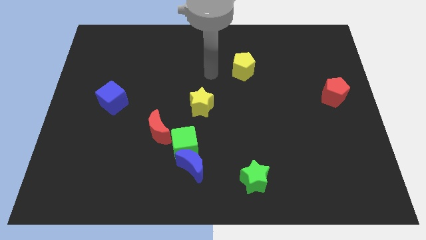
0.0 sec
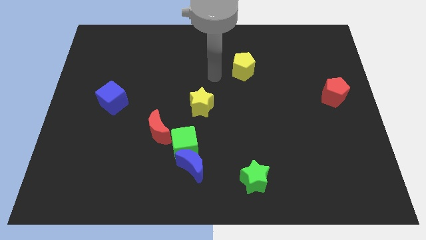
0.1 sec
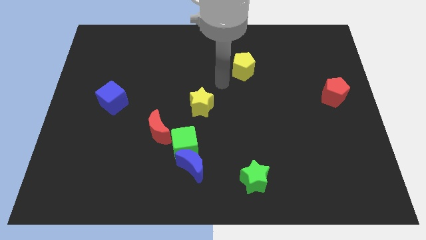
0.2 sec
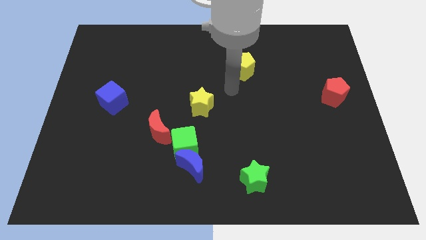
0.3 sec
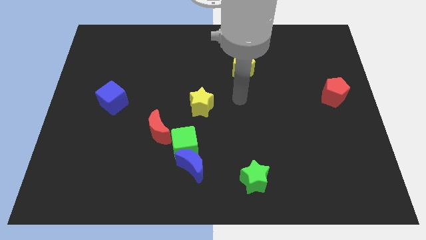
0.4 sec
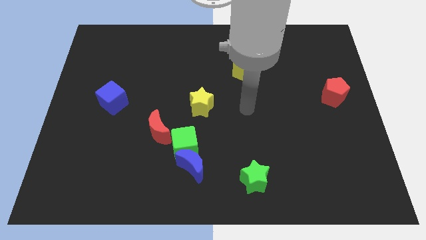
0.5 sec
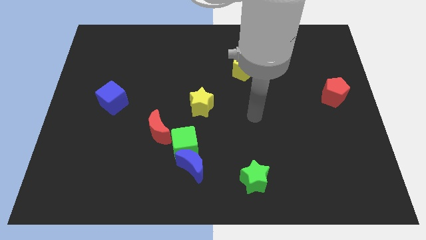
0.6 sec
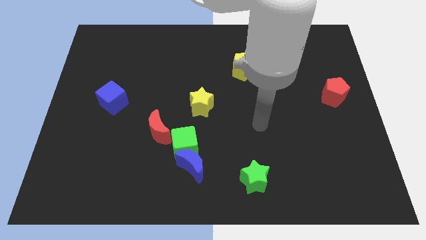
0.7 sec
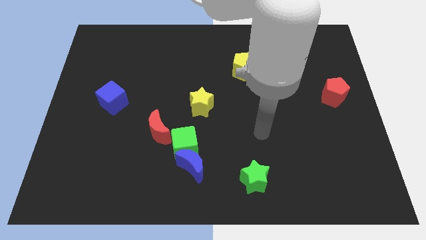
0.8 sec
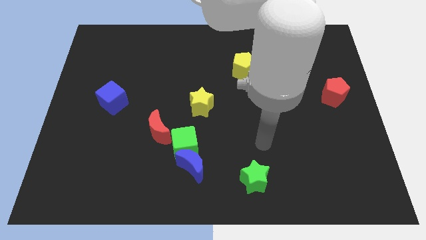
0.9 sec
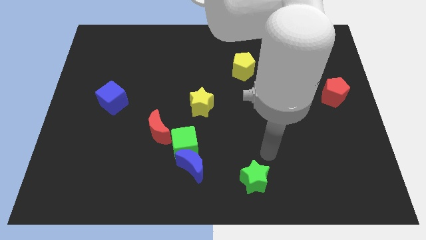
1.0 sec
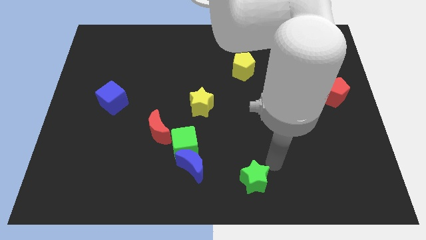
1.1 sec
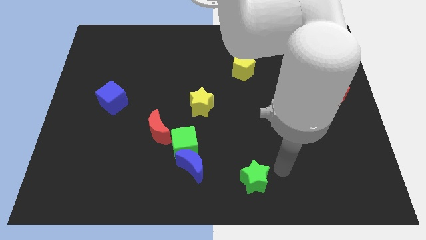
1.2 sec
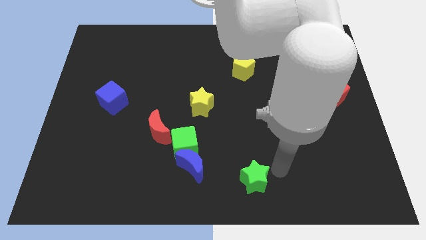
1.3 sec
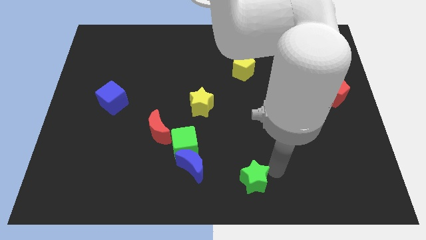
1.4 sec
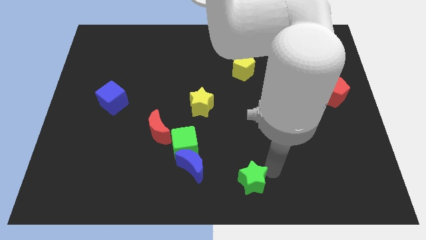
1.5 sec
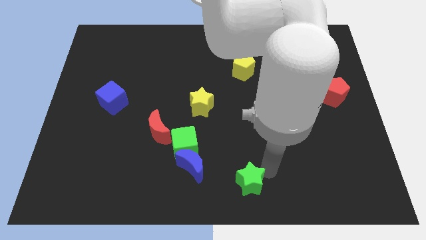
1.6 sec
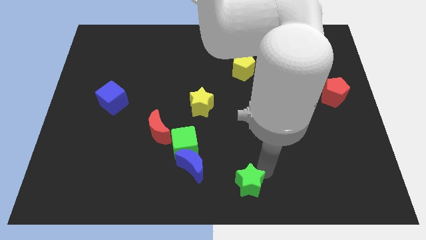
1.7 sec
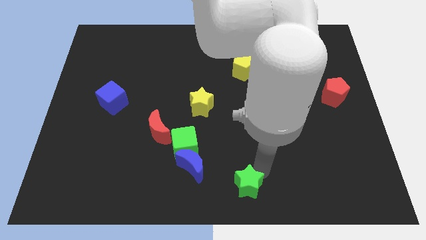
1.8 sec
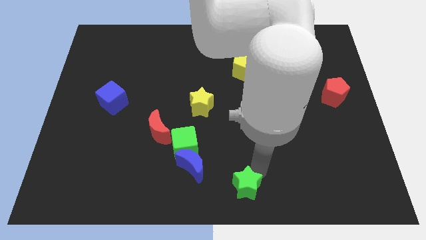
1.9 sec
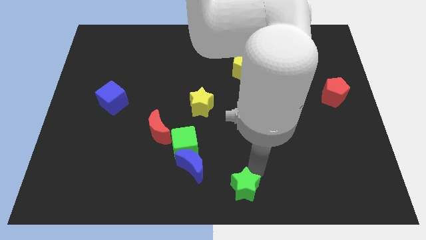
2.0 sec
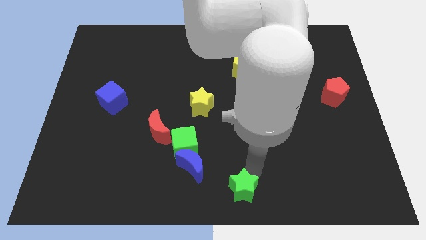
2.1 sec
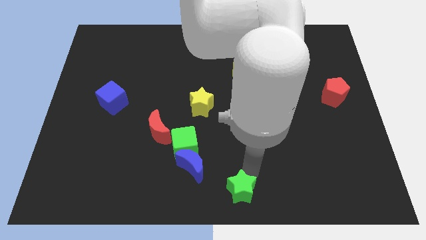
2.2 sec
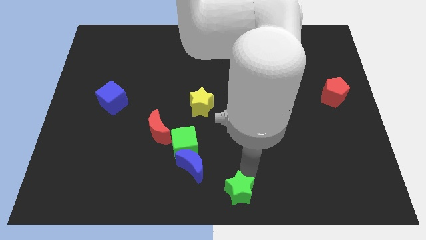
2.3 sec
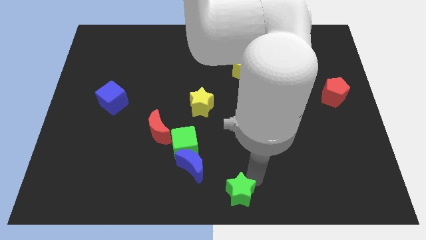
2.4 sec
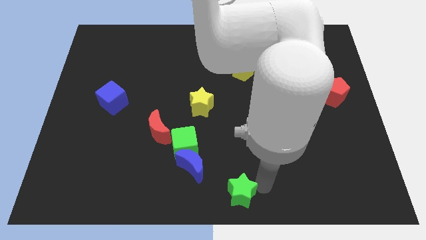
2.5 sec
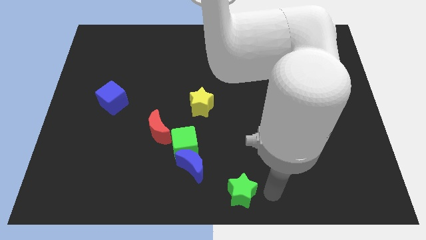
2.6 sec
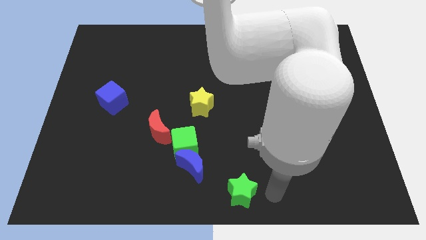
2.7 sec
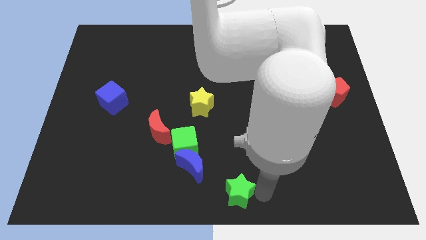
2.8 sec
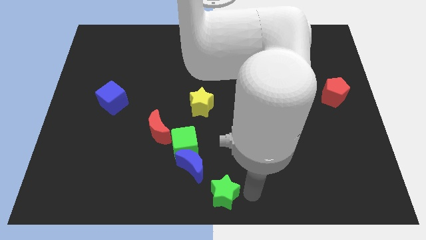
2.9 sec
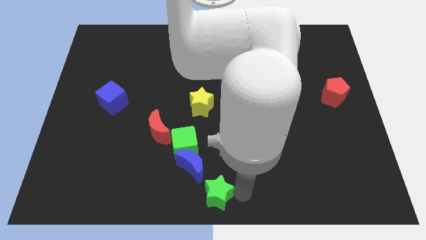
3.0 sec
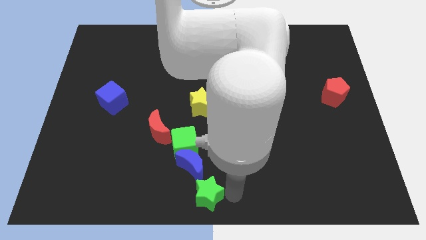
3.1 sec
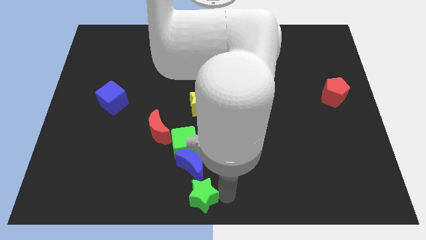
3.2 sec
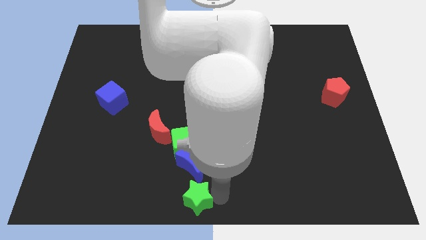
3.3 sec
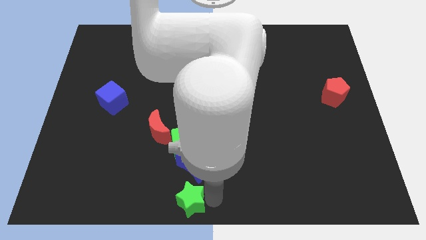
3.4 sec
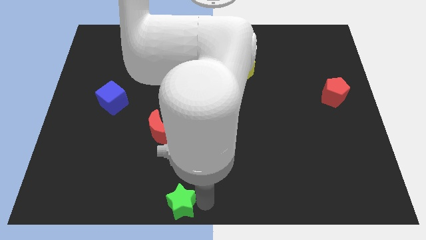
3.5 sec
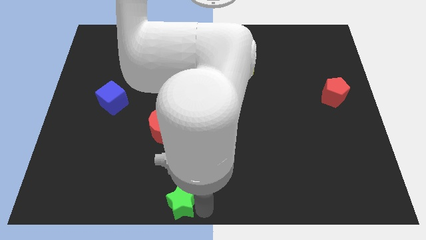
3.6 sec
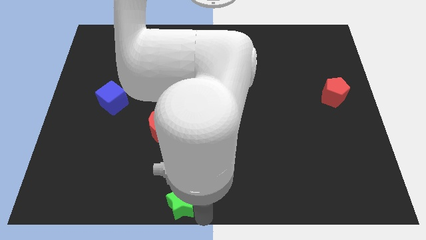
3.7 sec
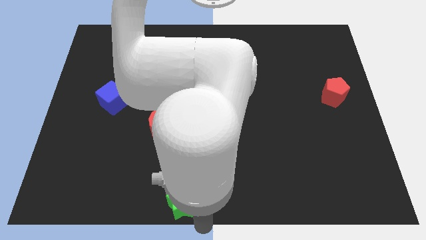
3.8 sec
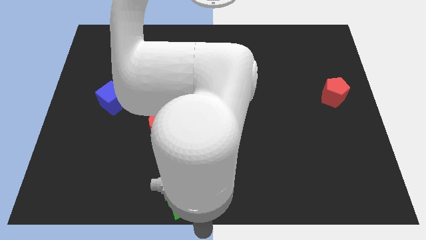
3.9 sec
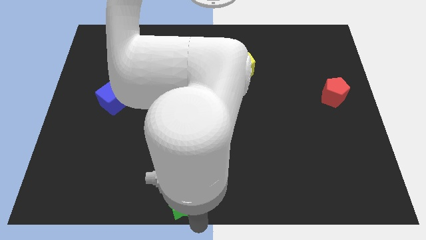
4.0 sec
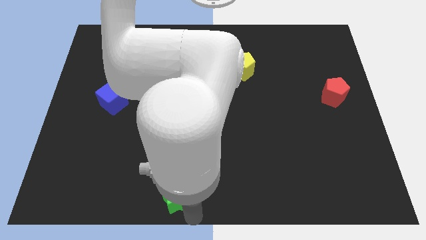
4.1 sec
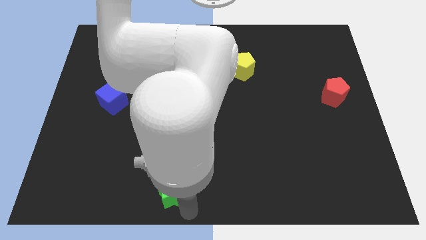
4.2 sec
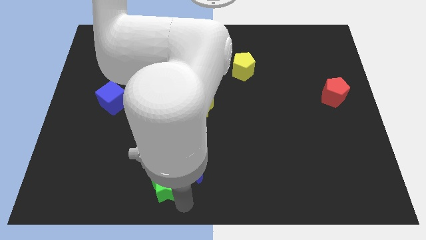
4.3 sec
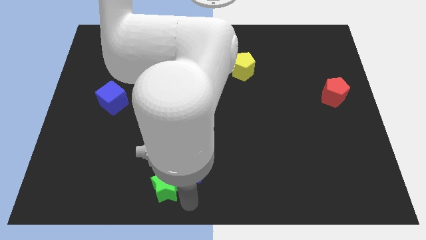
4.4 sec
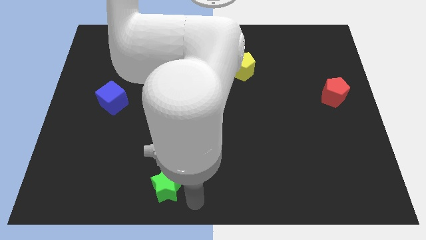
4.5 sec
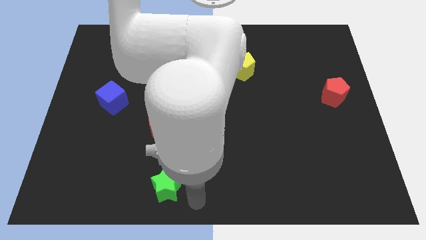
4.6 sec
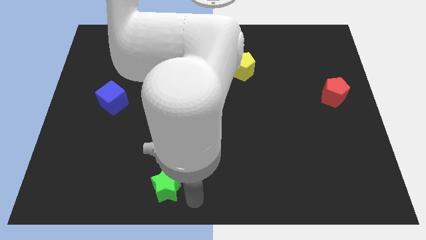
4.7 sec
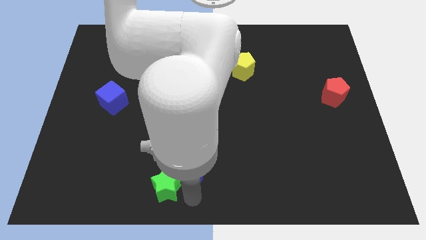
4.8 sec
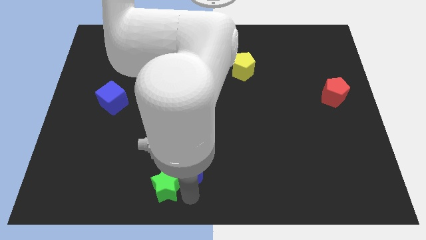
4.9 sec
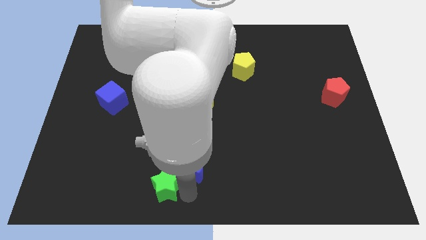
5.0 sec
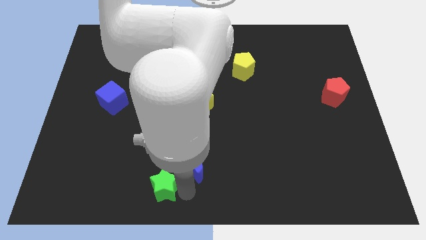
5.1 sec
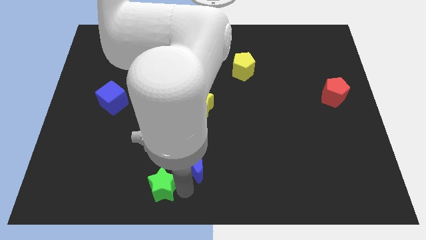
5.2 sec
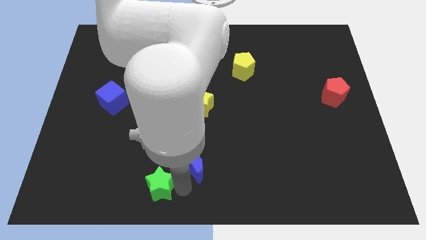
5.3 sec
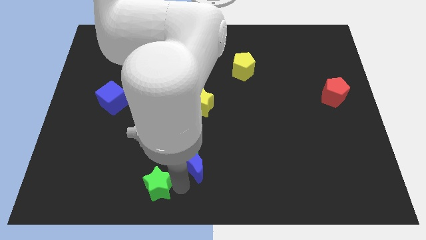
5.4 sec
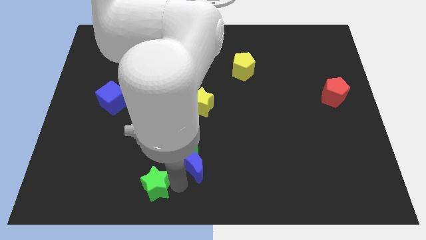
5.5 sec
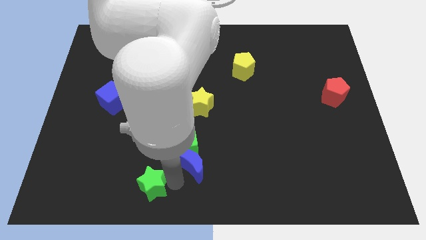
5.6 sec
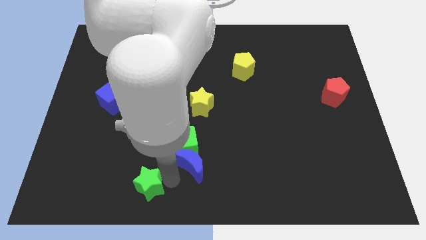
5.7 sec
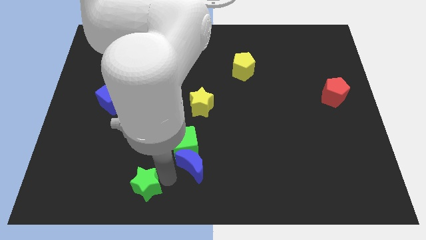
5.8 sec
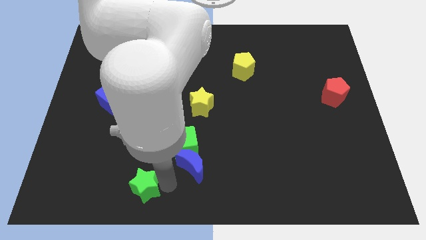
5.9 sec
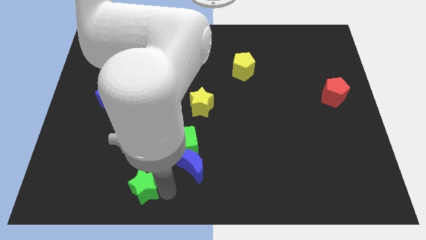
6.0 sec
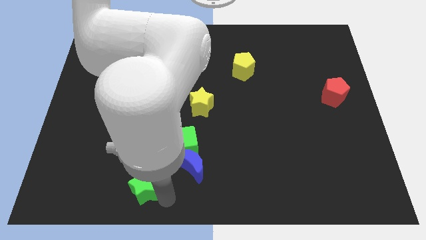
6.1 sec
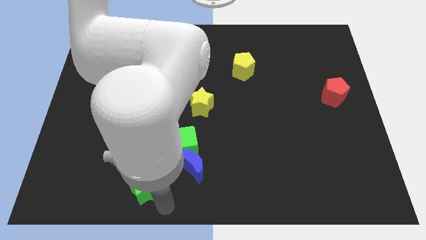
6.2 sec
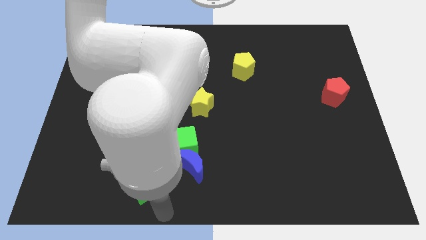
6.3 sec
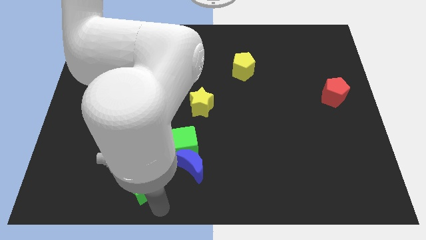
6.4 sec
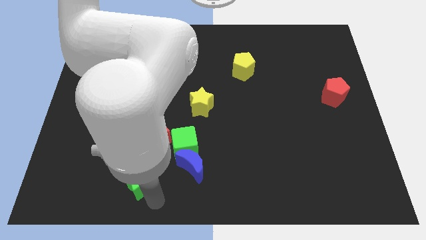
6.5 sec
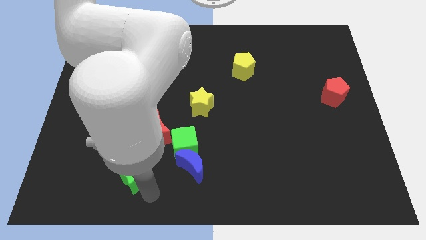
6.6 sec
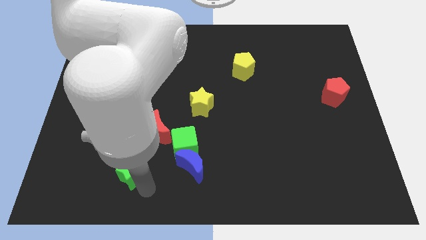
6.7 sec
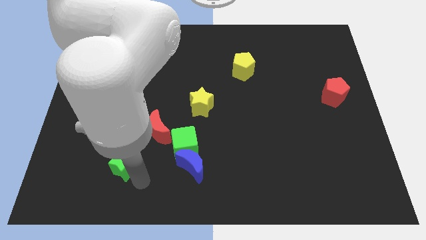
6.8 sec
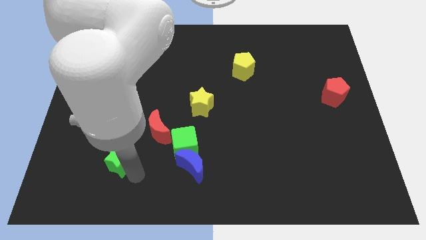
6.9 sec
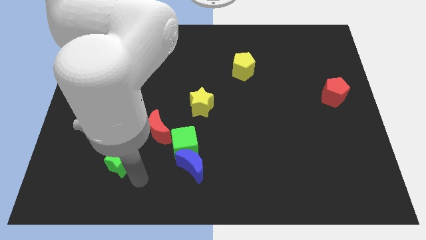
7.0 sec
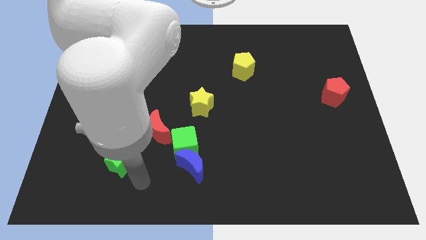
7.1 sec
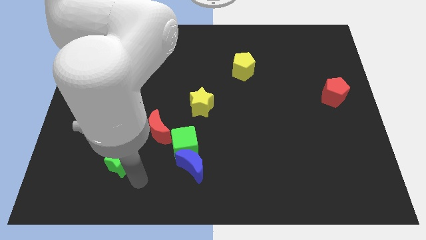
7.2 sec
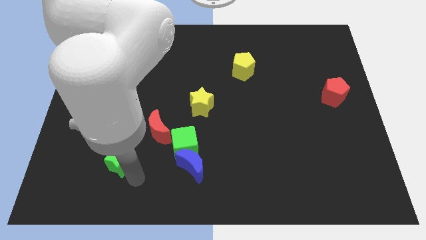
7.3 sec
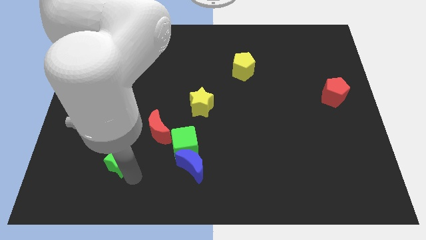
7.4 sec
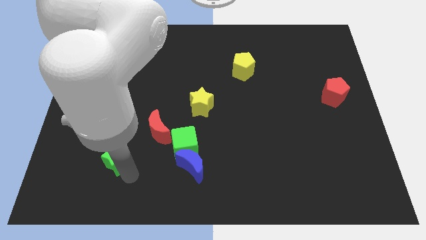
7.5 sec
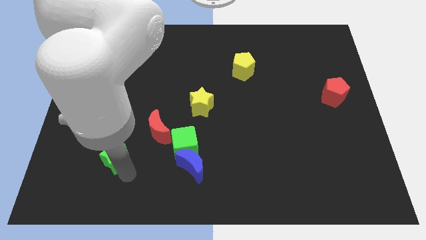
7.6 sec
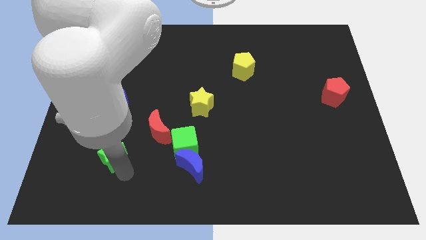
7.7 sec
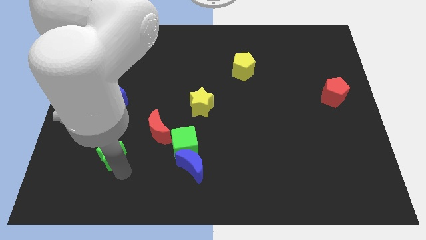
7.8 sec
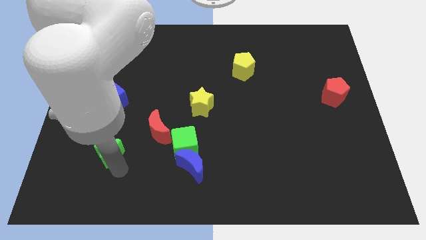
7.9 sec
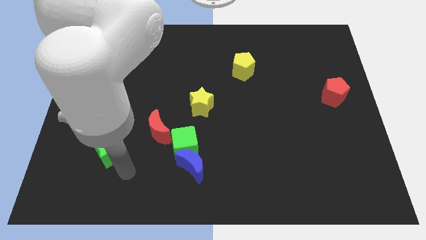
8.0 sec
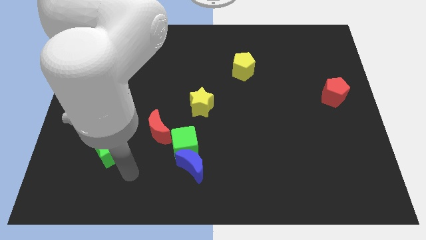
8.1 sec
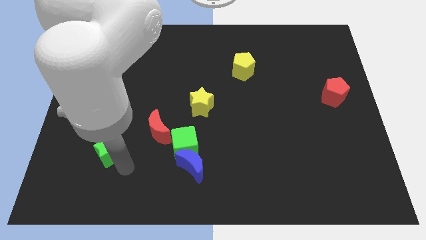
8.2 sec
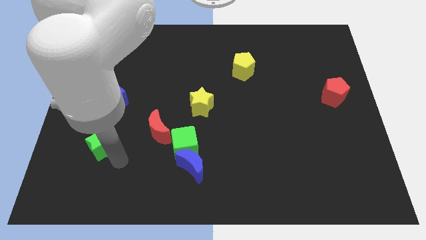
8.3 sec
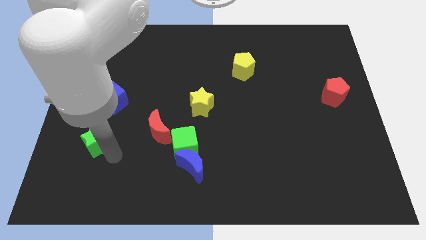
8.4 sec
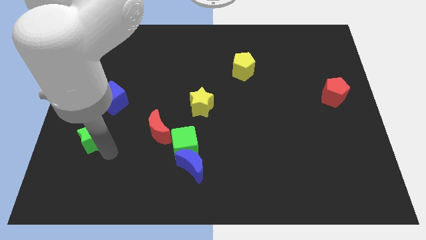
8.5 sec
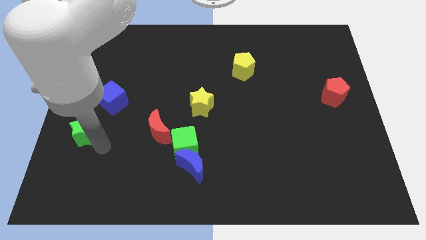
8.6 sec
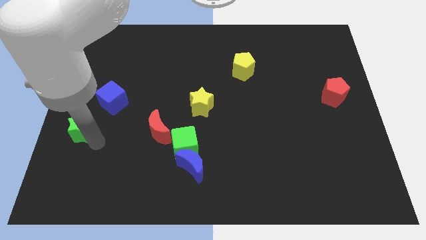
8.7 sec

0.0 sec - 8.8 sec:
move the green star to the center left
